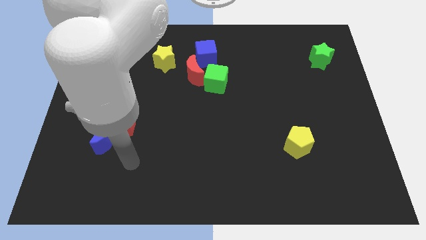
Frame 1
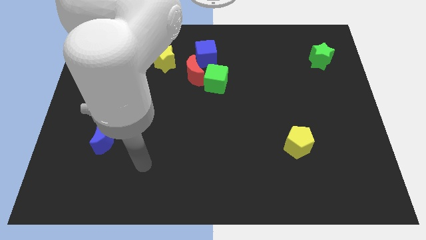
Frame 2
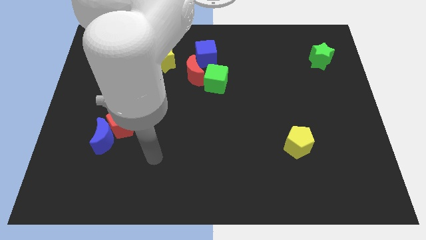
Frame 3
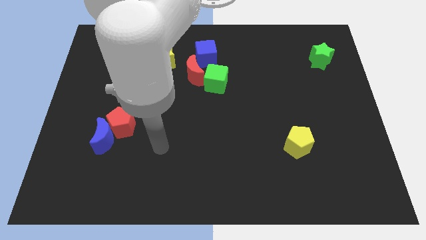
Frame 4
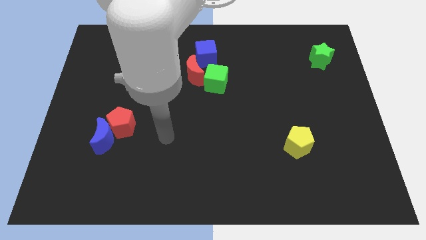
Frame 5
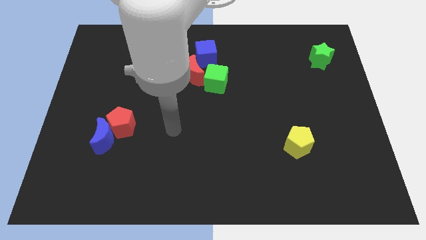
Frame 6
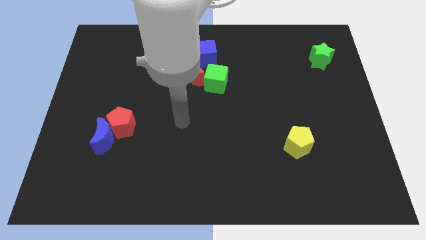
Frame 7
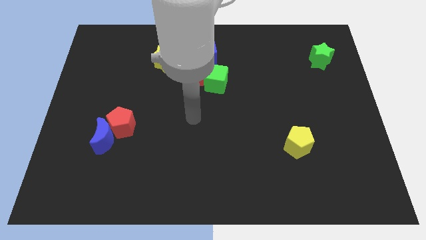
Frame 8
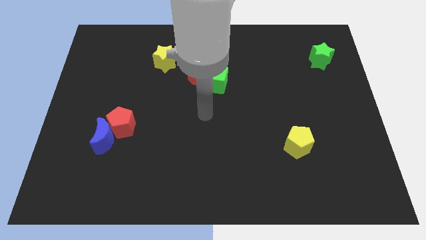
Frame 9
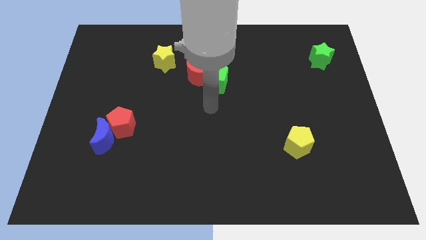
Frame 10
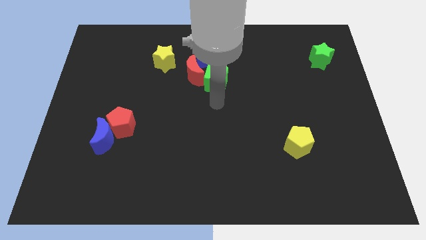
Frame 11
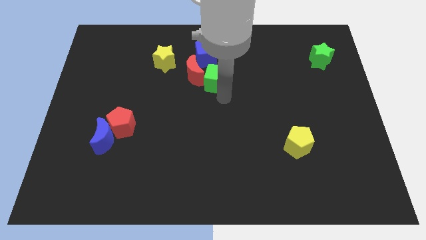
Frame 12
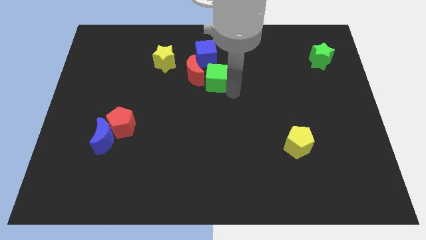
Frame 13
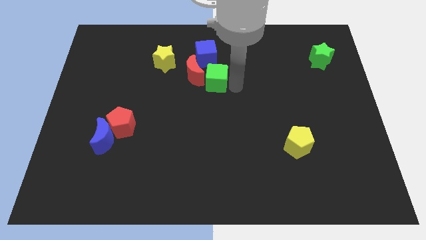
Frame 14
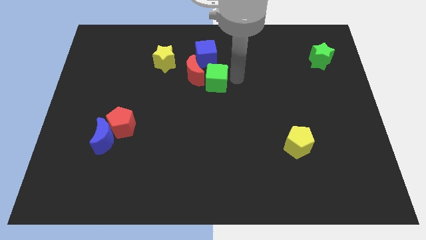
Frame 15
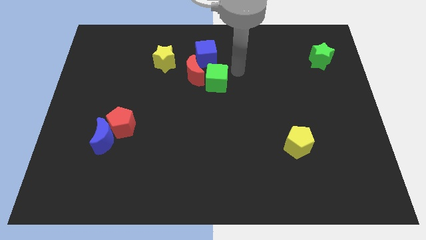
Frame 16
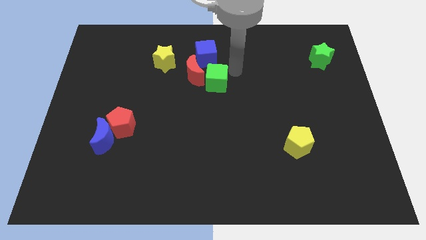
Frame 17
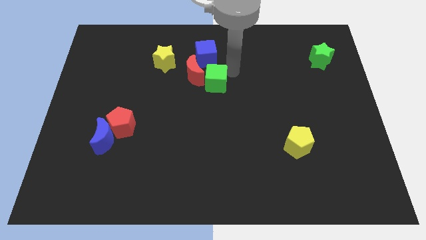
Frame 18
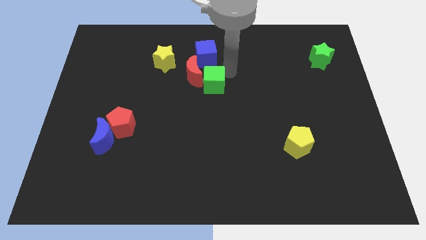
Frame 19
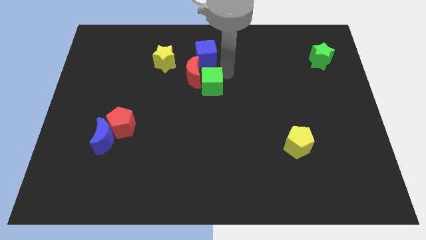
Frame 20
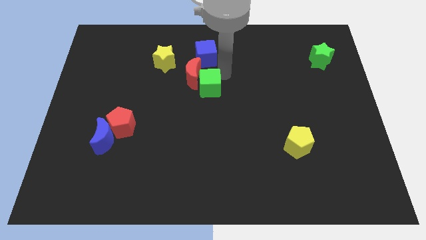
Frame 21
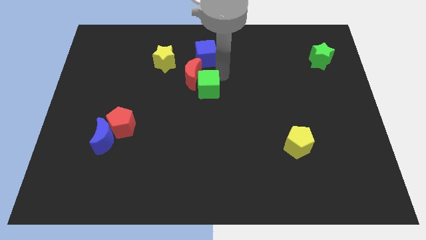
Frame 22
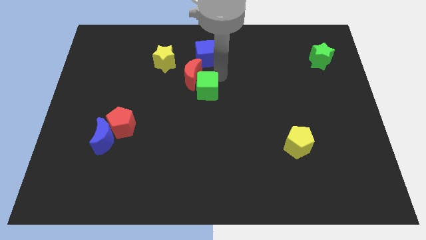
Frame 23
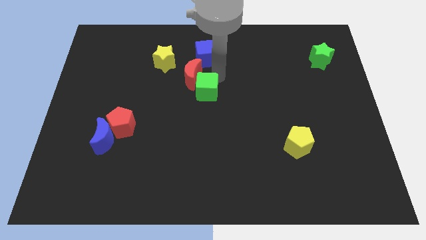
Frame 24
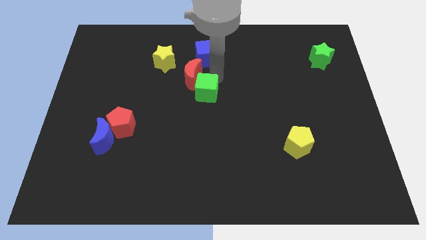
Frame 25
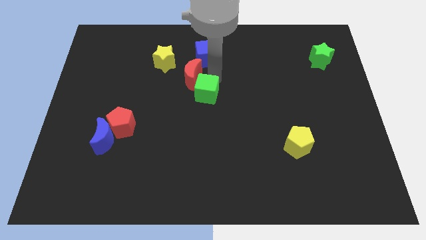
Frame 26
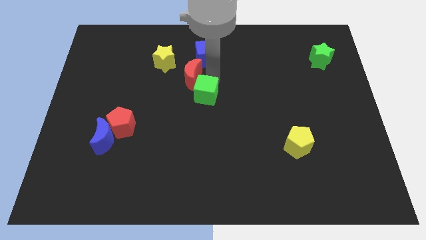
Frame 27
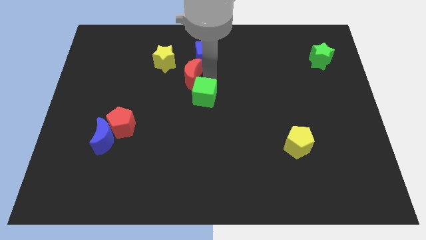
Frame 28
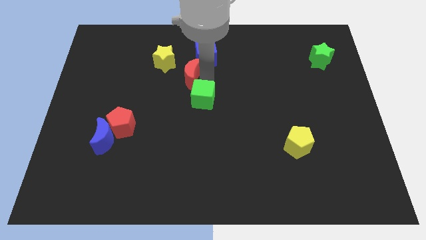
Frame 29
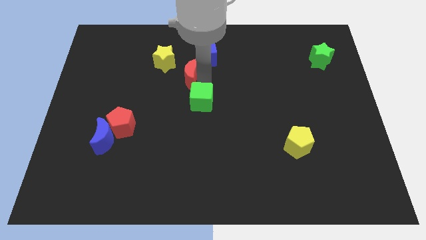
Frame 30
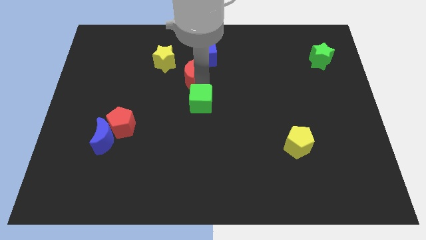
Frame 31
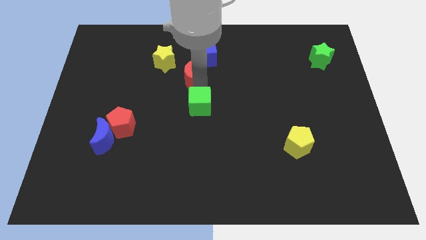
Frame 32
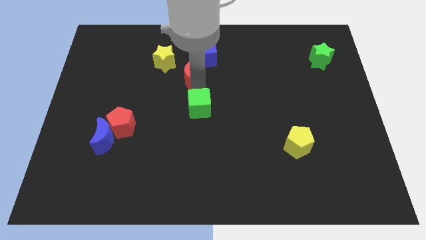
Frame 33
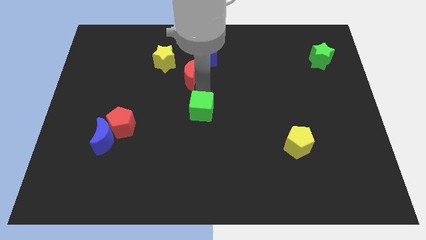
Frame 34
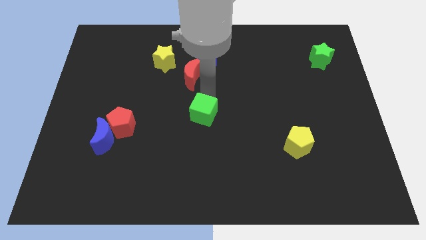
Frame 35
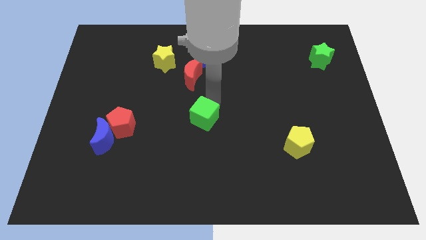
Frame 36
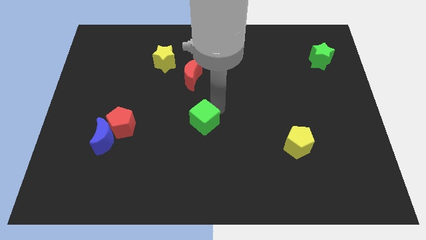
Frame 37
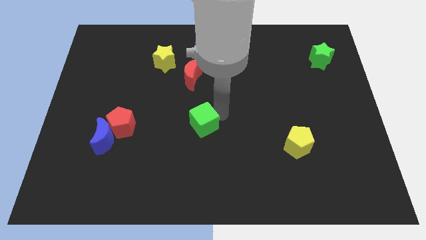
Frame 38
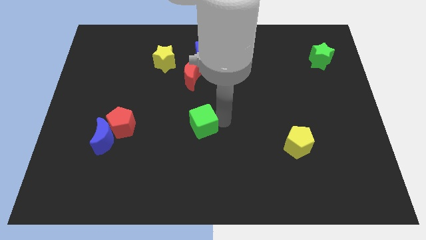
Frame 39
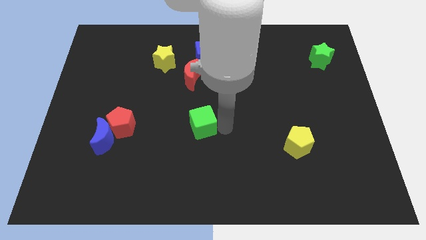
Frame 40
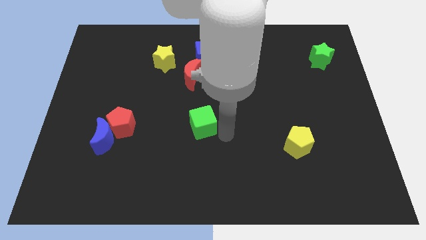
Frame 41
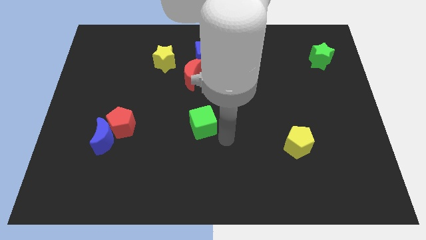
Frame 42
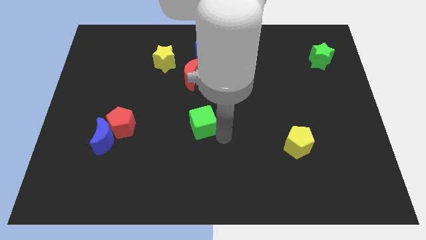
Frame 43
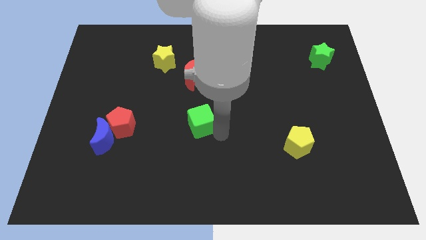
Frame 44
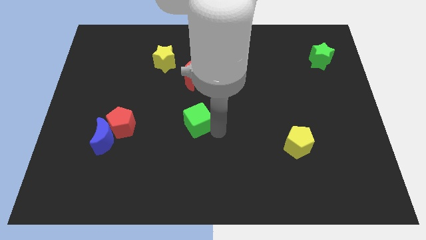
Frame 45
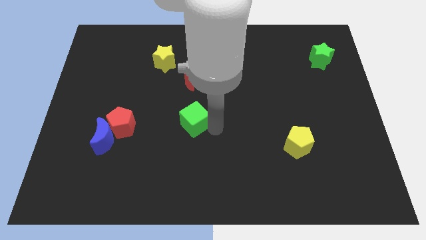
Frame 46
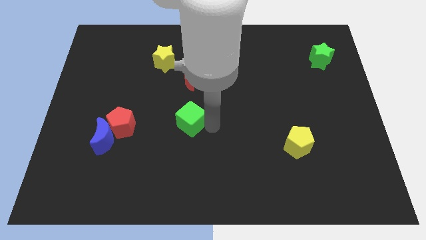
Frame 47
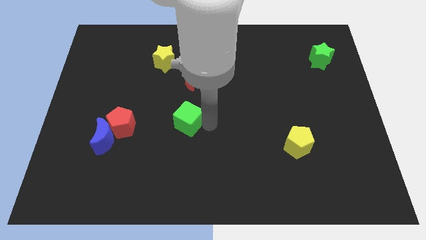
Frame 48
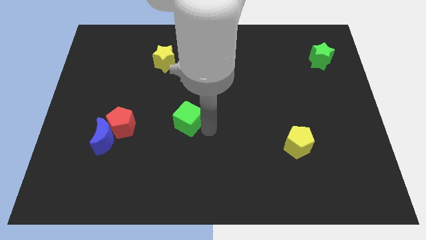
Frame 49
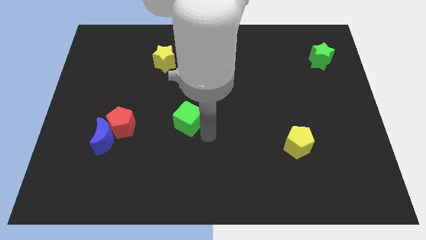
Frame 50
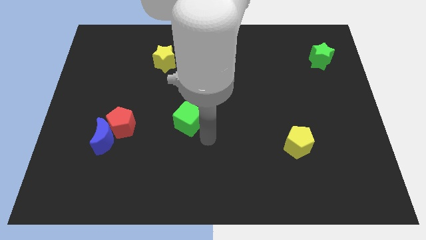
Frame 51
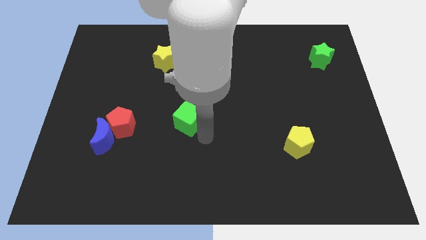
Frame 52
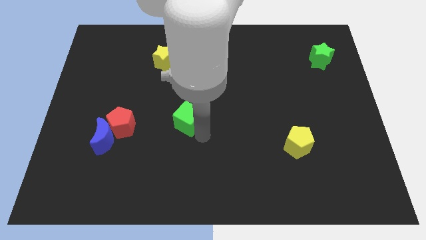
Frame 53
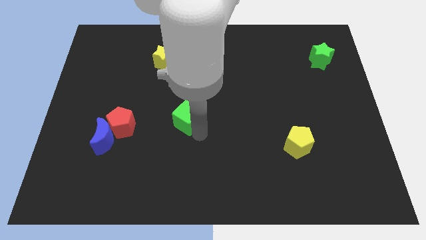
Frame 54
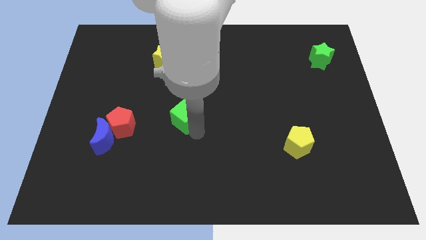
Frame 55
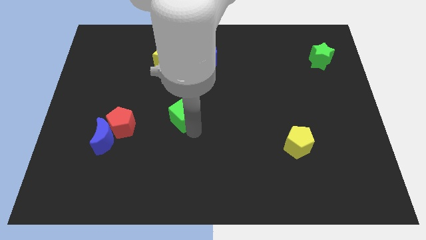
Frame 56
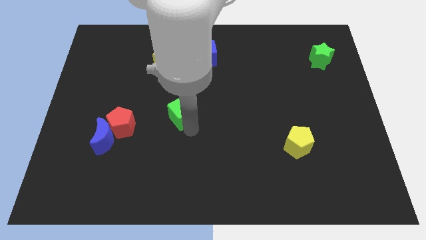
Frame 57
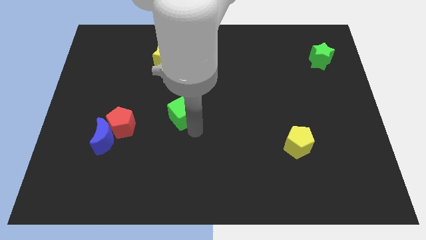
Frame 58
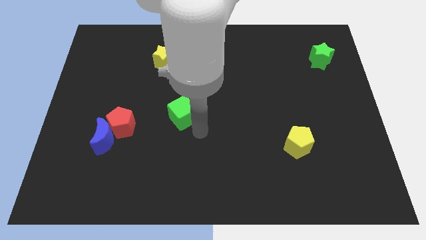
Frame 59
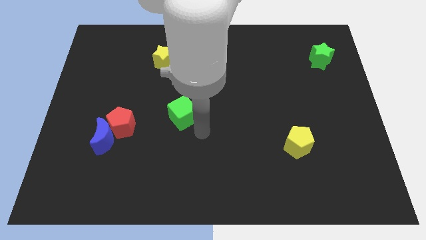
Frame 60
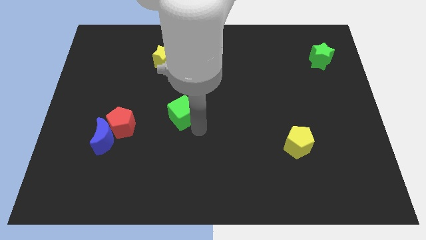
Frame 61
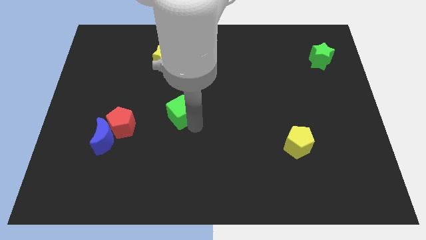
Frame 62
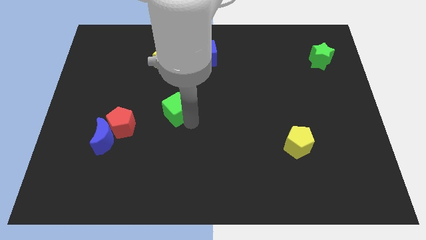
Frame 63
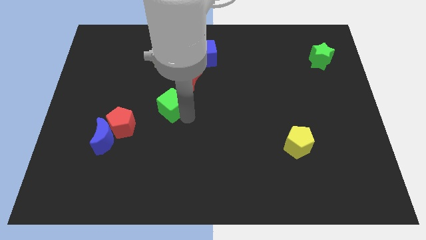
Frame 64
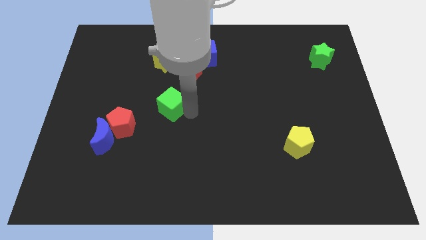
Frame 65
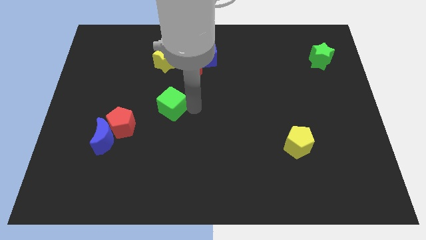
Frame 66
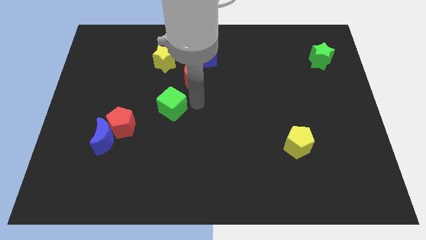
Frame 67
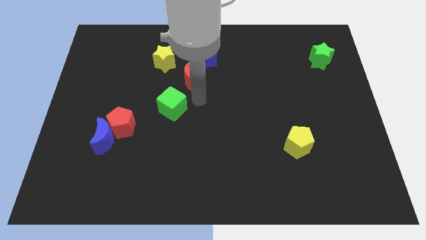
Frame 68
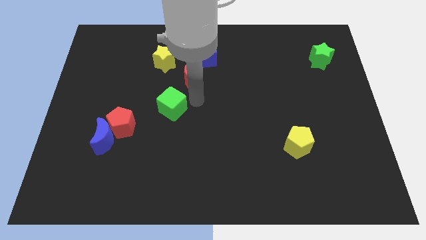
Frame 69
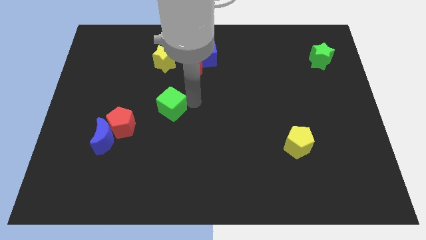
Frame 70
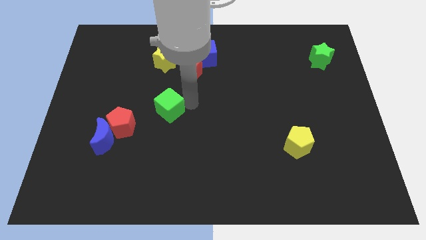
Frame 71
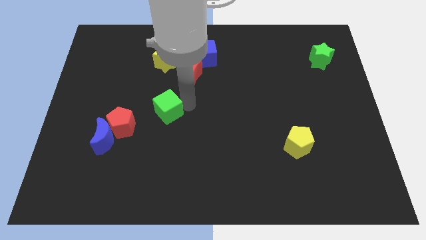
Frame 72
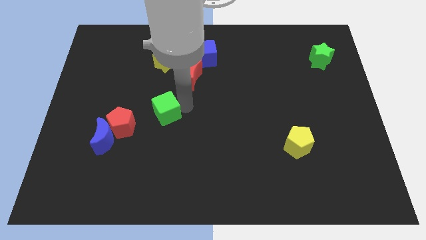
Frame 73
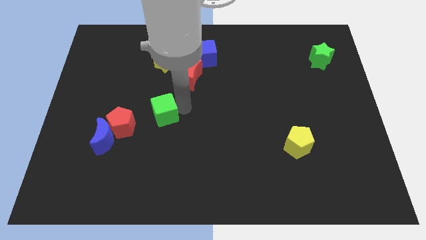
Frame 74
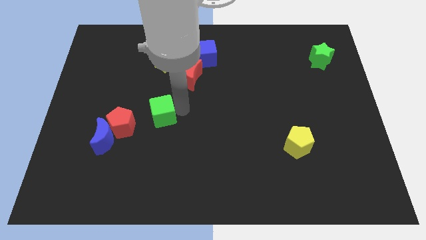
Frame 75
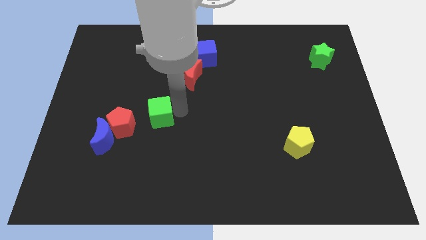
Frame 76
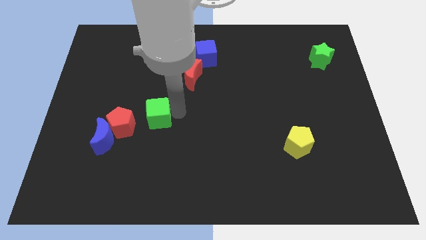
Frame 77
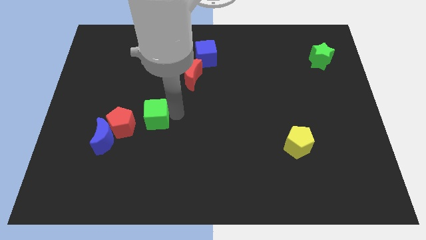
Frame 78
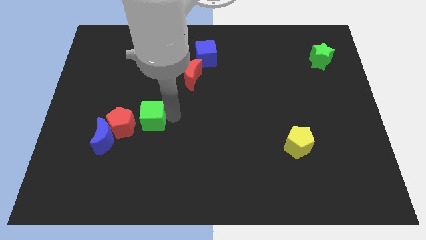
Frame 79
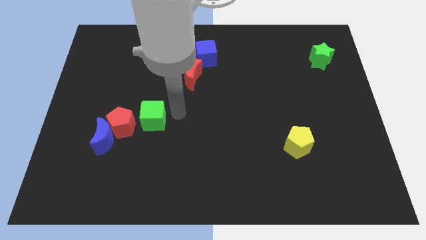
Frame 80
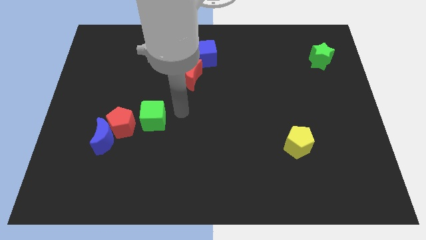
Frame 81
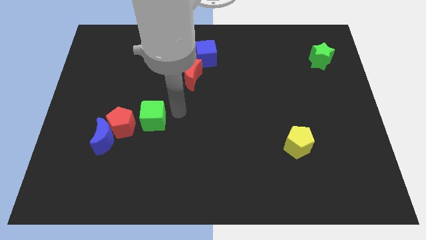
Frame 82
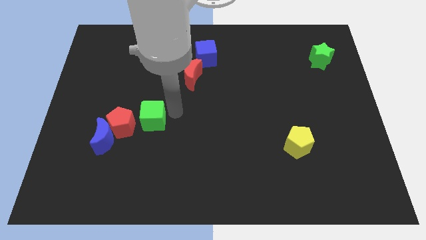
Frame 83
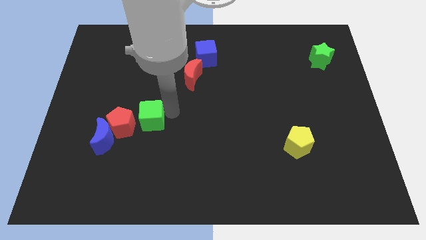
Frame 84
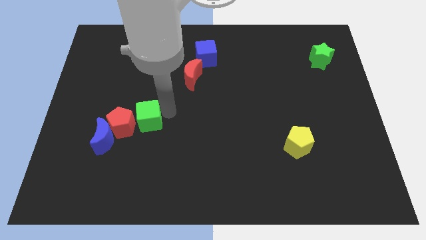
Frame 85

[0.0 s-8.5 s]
push the green cube towards the red pentagon
